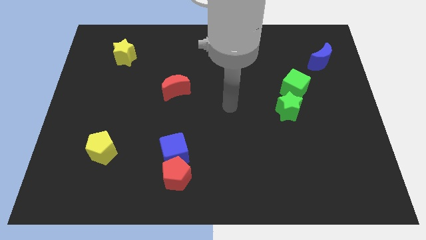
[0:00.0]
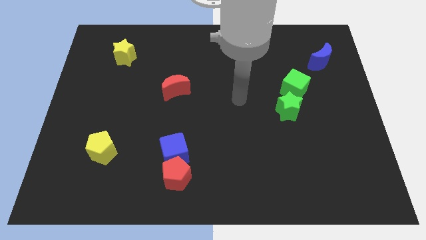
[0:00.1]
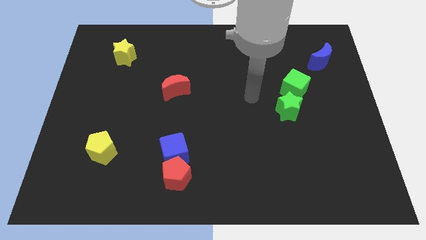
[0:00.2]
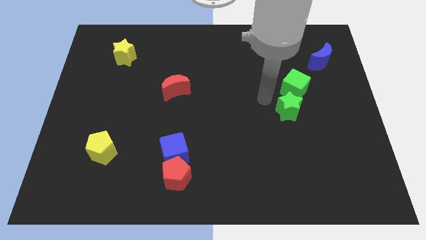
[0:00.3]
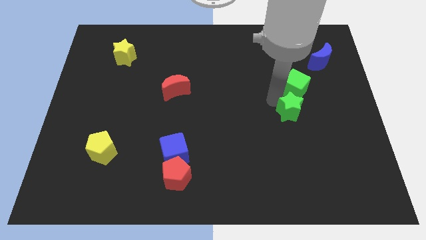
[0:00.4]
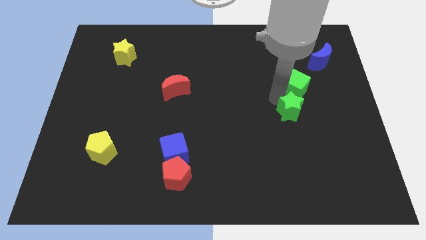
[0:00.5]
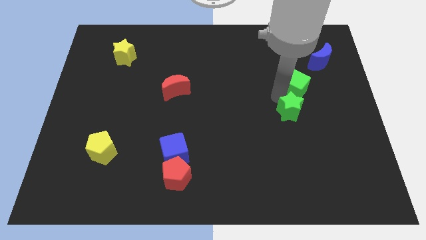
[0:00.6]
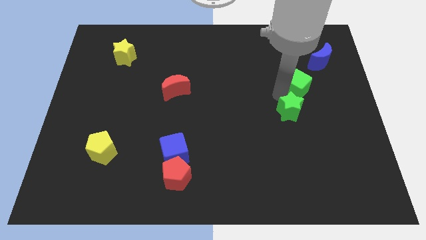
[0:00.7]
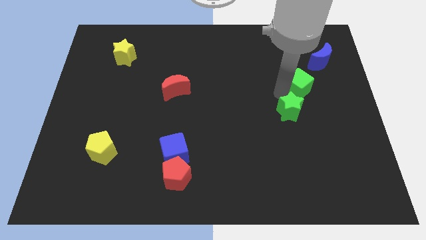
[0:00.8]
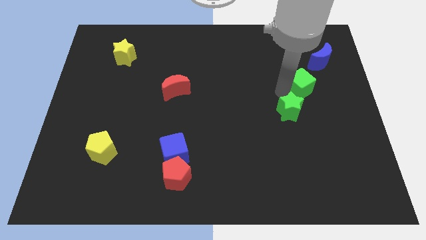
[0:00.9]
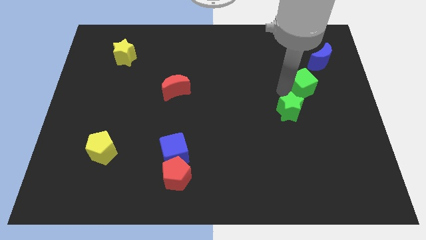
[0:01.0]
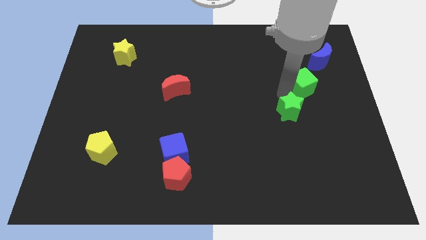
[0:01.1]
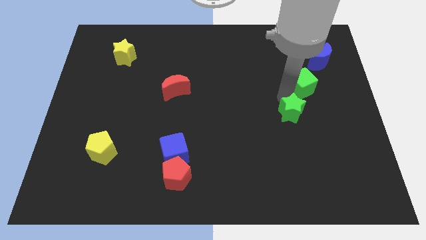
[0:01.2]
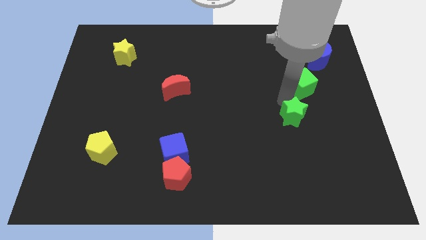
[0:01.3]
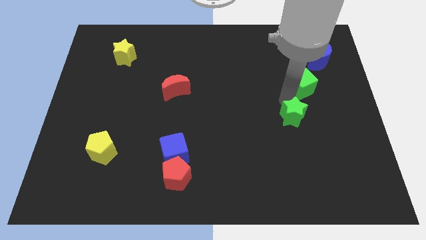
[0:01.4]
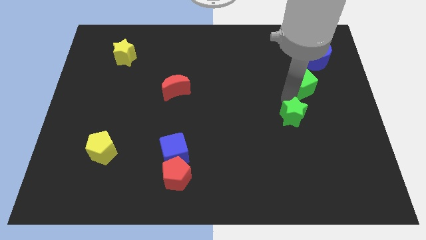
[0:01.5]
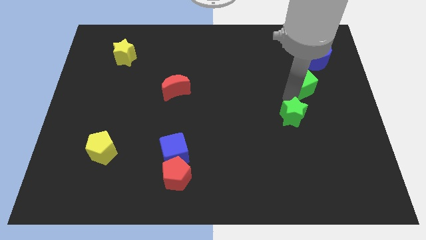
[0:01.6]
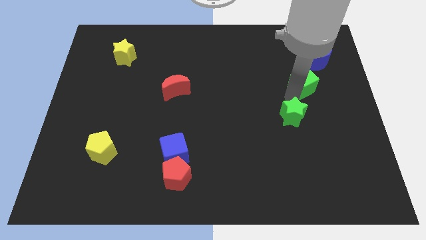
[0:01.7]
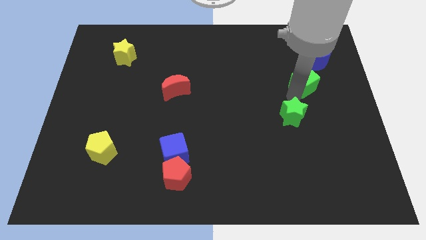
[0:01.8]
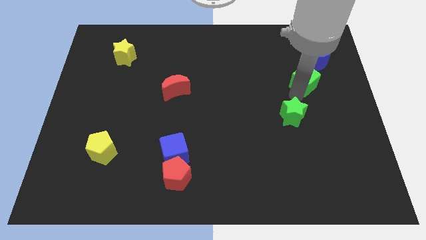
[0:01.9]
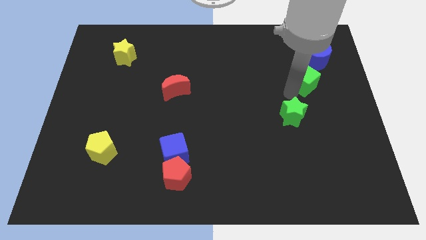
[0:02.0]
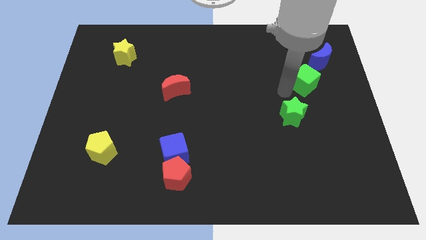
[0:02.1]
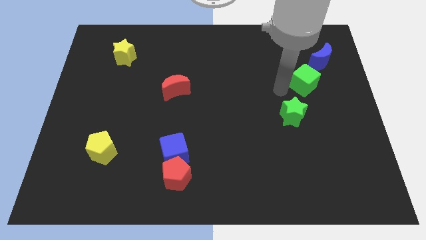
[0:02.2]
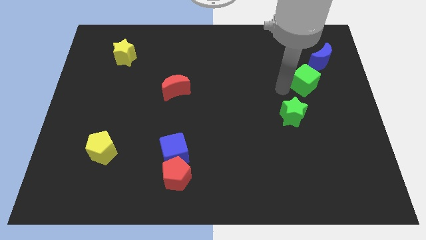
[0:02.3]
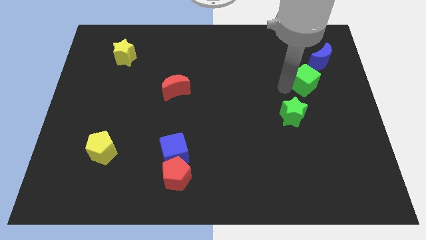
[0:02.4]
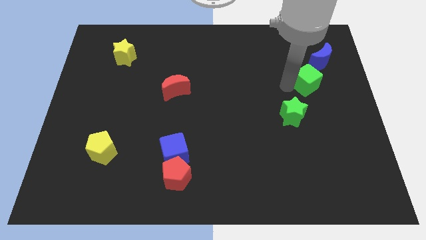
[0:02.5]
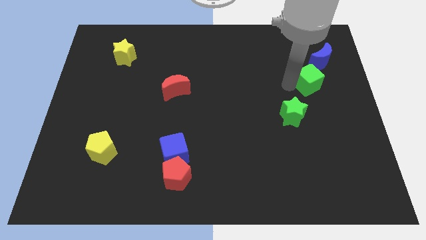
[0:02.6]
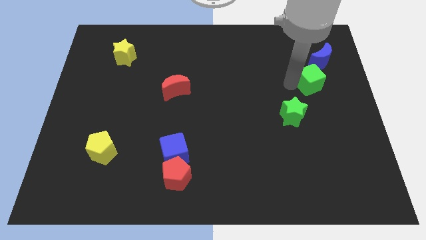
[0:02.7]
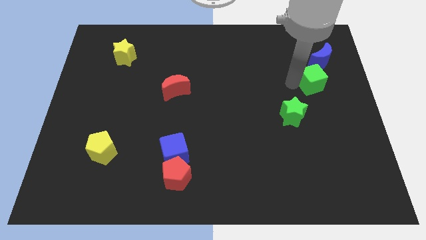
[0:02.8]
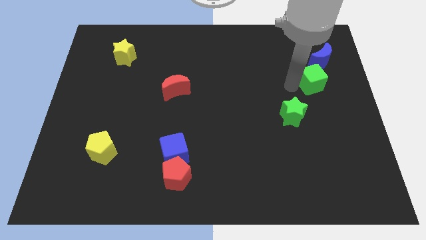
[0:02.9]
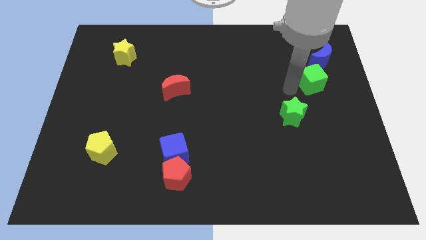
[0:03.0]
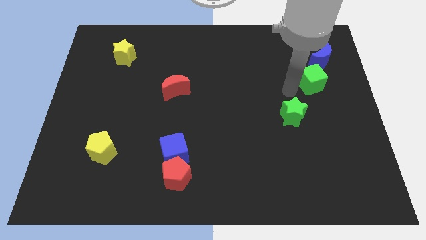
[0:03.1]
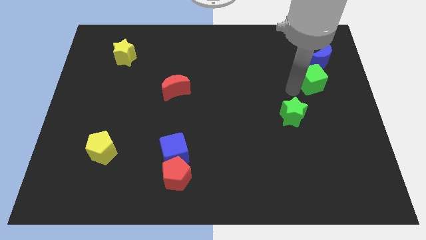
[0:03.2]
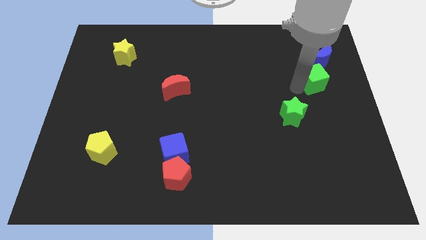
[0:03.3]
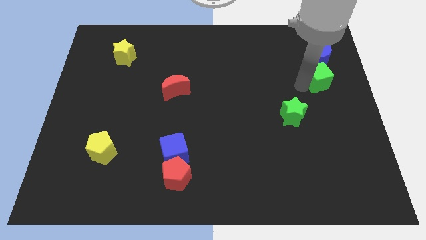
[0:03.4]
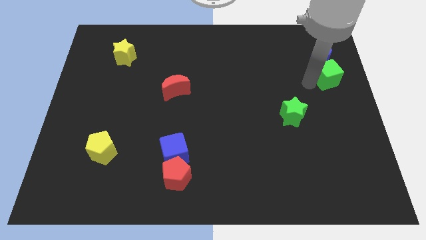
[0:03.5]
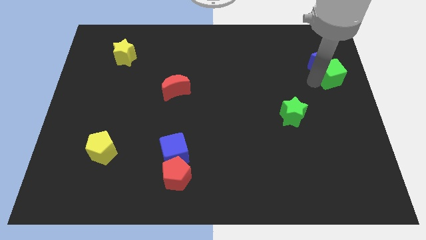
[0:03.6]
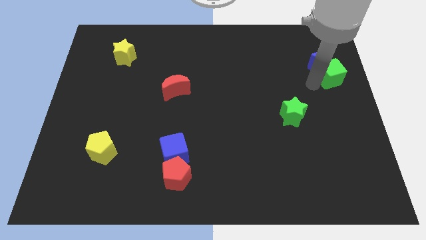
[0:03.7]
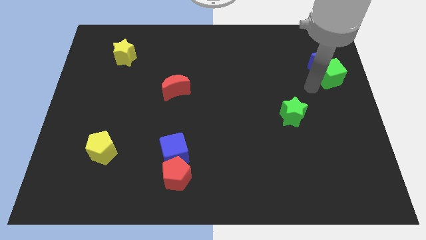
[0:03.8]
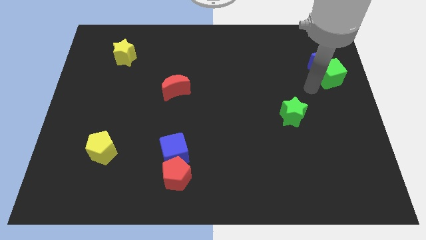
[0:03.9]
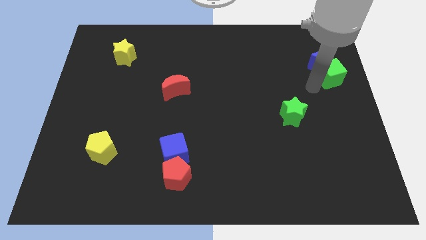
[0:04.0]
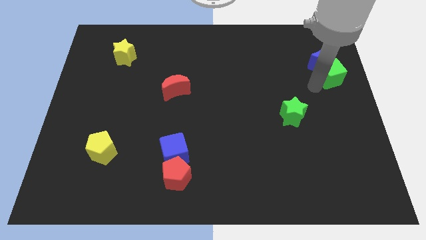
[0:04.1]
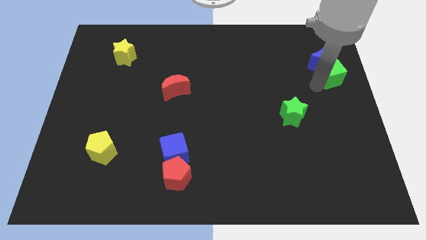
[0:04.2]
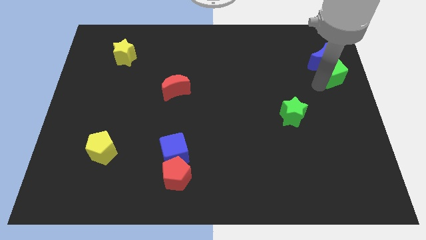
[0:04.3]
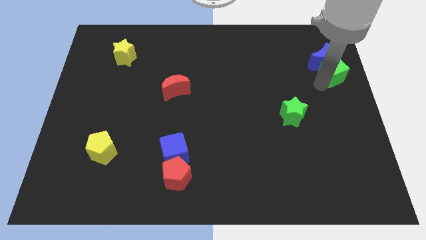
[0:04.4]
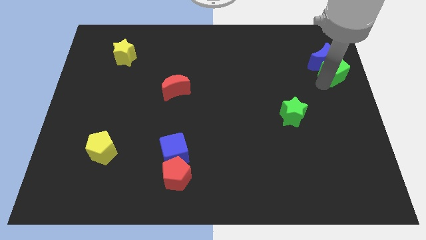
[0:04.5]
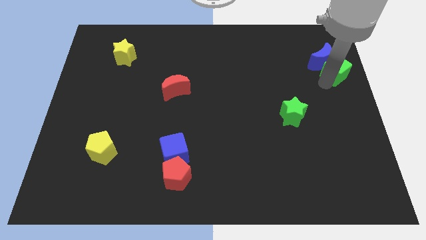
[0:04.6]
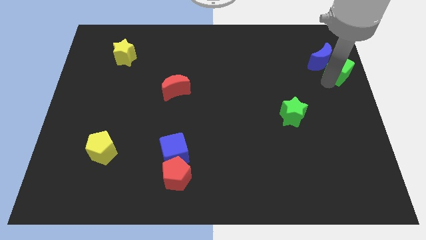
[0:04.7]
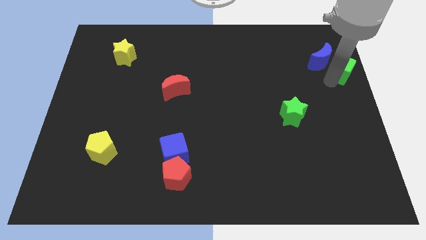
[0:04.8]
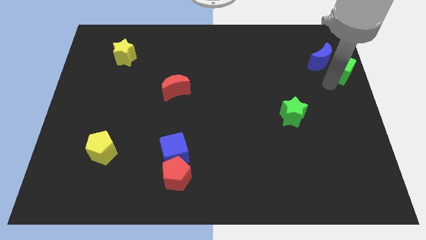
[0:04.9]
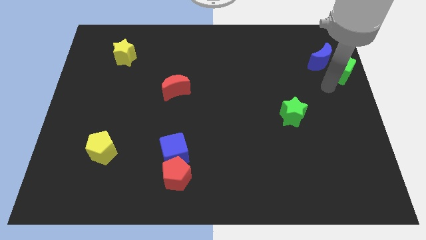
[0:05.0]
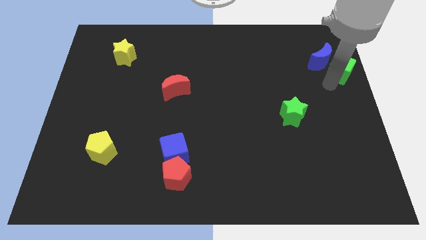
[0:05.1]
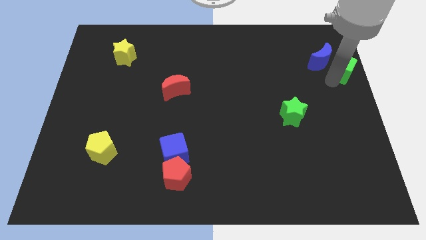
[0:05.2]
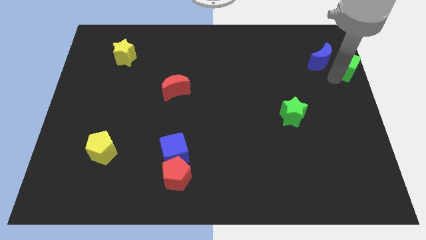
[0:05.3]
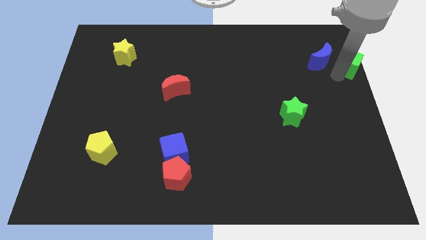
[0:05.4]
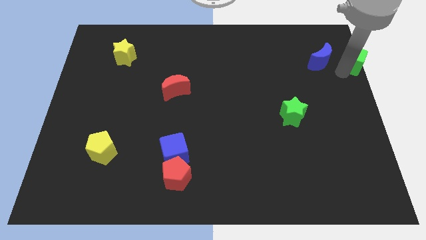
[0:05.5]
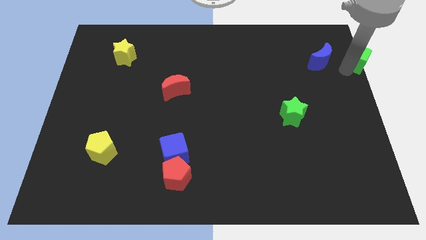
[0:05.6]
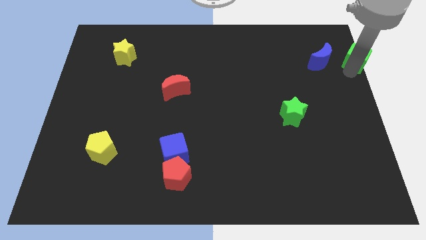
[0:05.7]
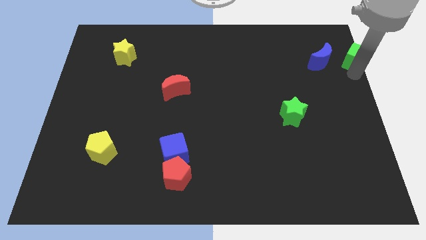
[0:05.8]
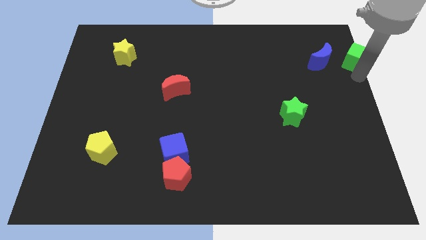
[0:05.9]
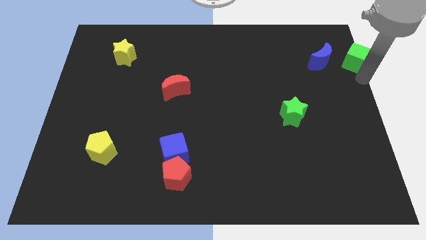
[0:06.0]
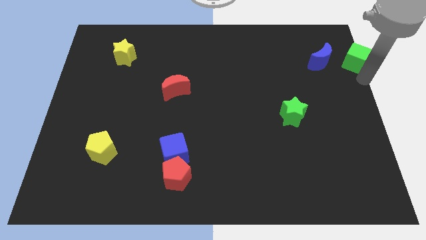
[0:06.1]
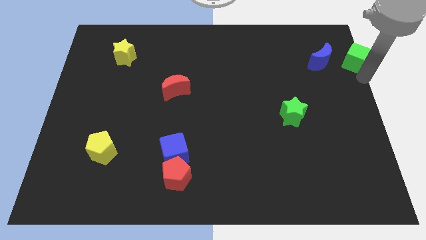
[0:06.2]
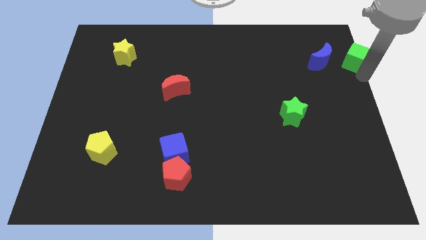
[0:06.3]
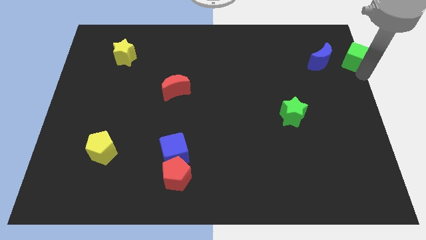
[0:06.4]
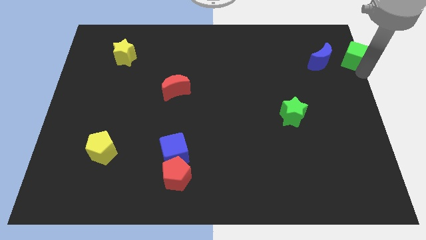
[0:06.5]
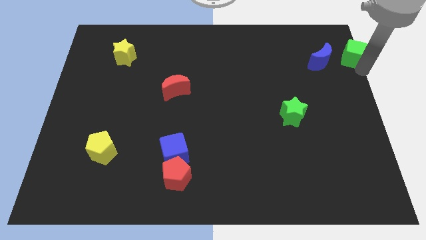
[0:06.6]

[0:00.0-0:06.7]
push the green cube to the upper right corner
